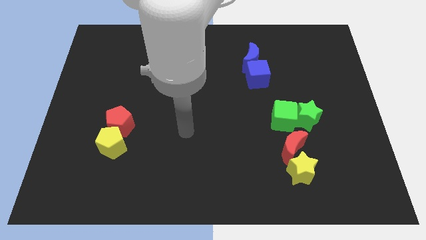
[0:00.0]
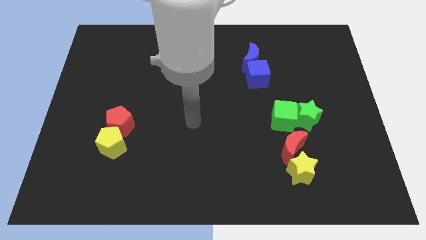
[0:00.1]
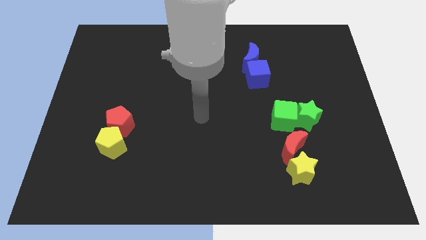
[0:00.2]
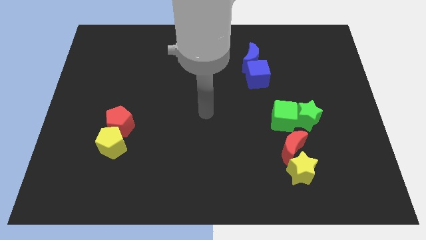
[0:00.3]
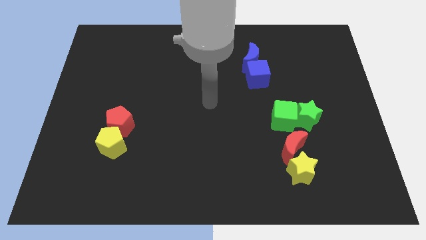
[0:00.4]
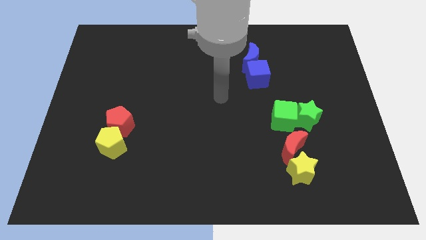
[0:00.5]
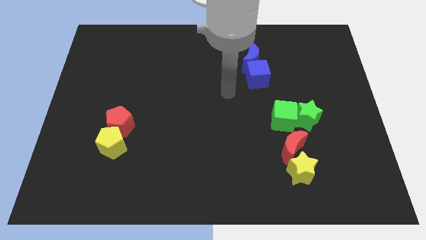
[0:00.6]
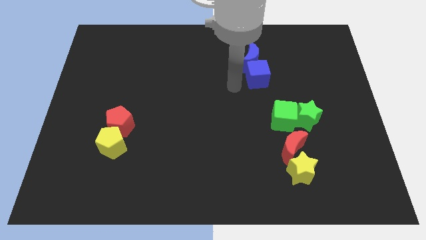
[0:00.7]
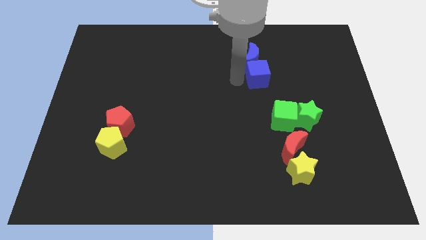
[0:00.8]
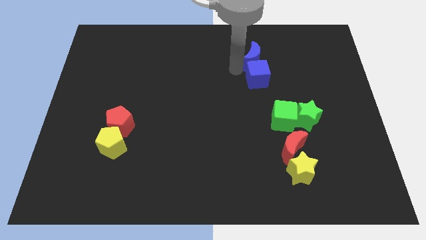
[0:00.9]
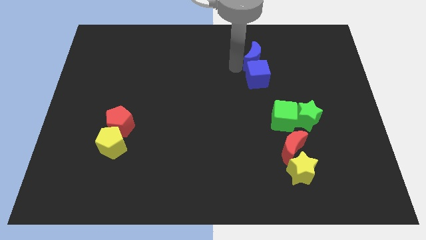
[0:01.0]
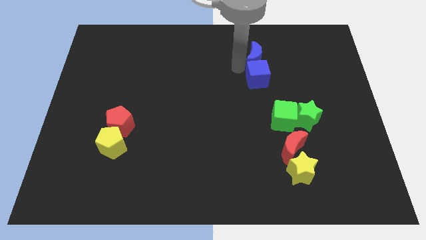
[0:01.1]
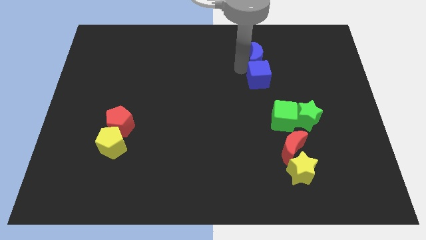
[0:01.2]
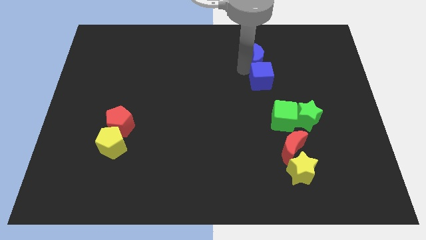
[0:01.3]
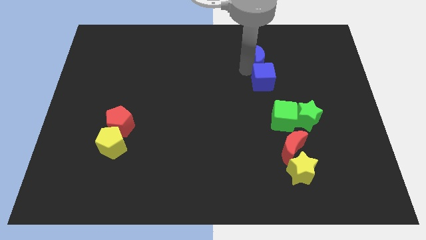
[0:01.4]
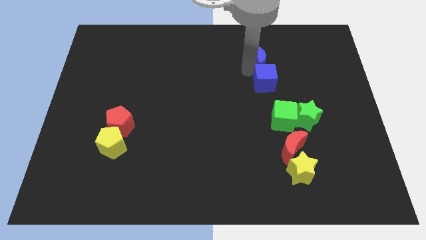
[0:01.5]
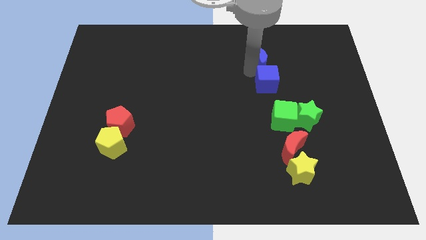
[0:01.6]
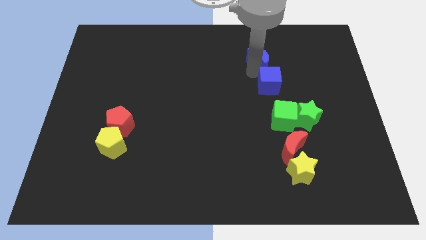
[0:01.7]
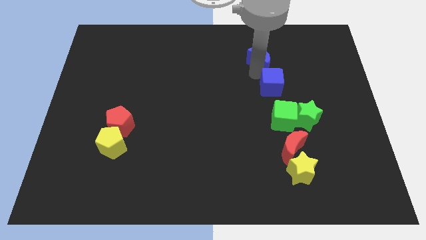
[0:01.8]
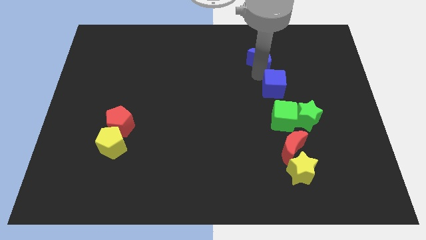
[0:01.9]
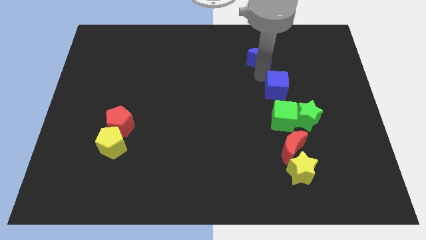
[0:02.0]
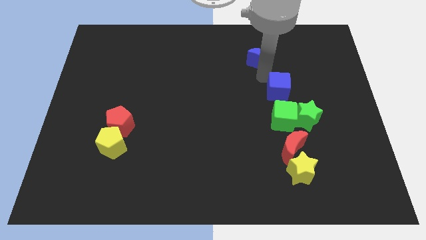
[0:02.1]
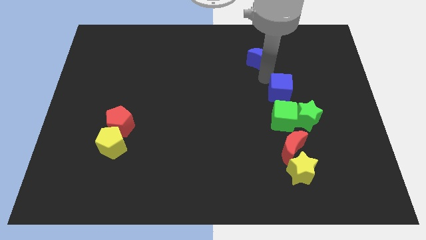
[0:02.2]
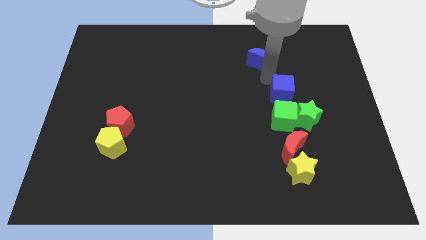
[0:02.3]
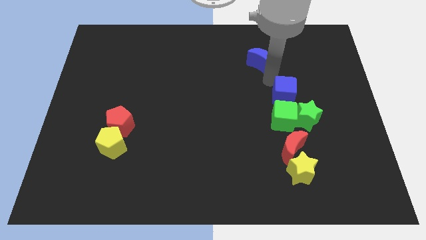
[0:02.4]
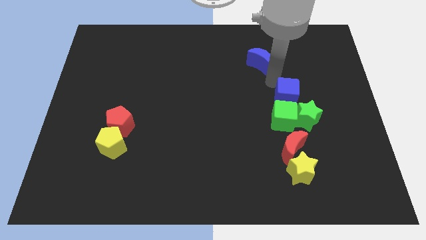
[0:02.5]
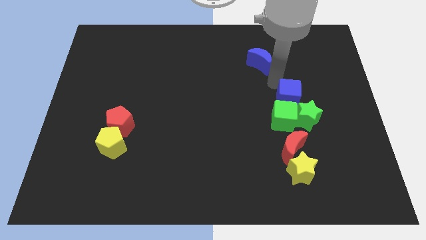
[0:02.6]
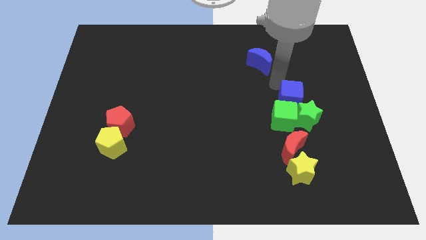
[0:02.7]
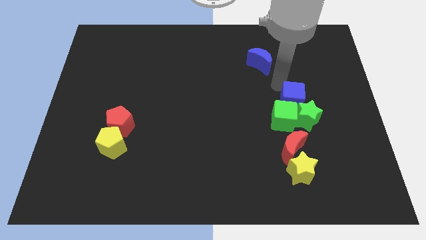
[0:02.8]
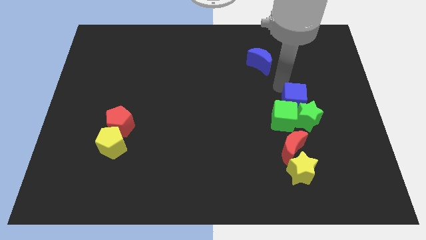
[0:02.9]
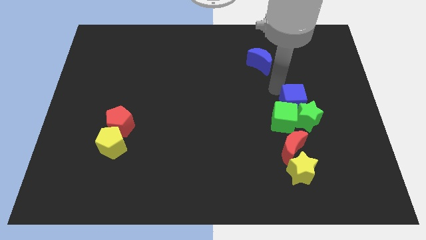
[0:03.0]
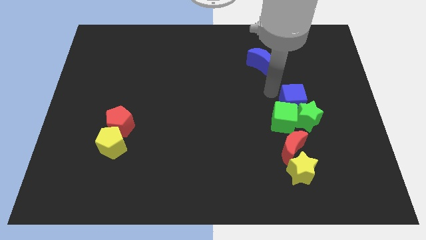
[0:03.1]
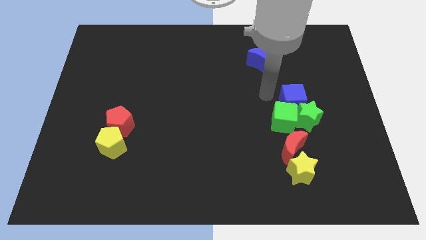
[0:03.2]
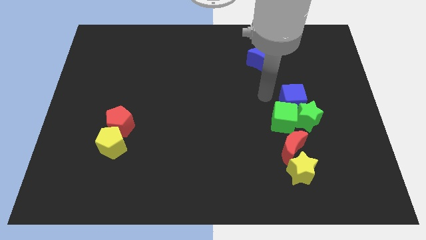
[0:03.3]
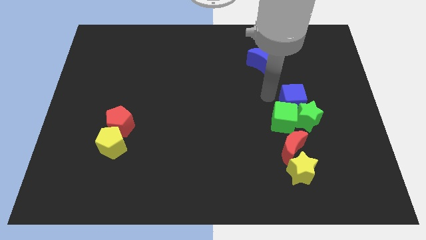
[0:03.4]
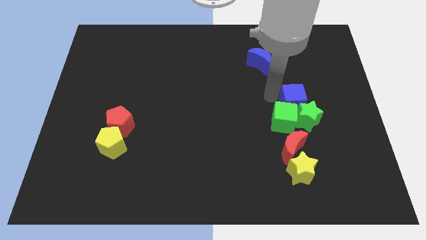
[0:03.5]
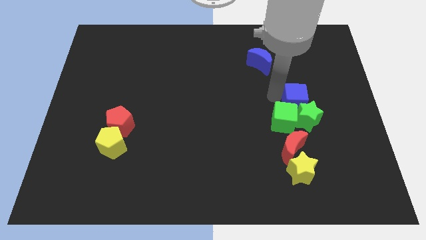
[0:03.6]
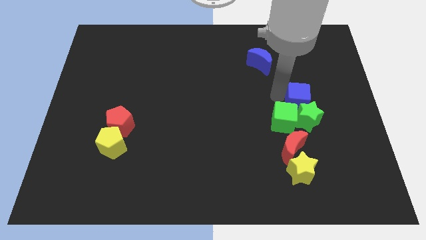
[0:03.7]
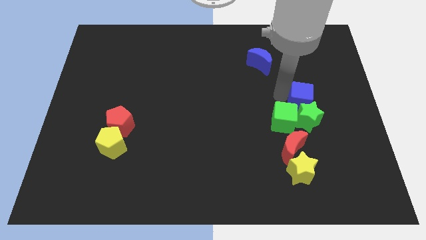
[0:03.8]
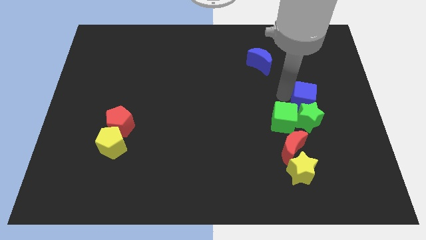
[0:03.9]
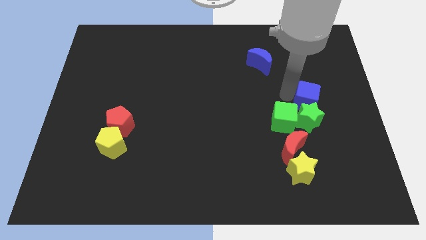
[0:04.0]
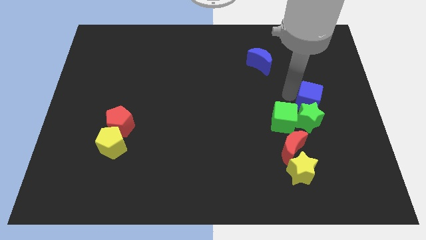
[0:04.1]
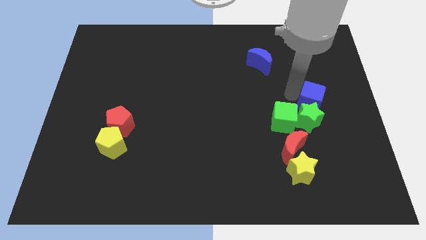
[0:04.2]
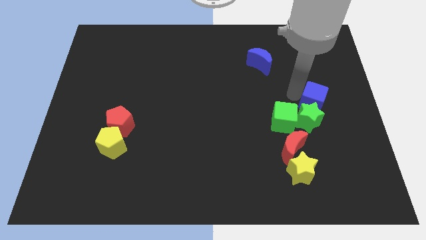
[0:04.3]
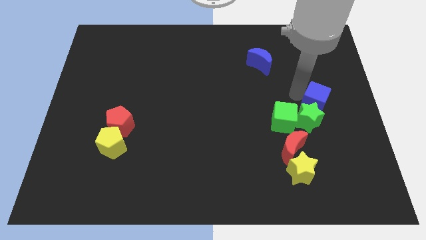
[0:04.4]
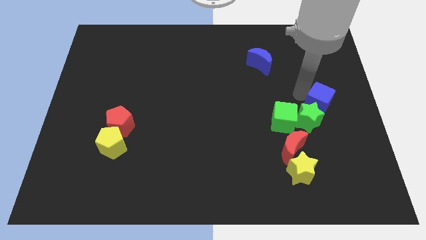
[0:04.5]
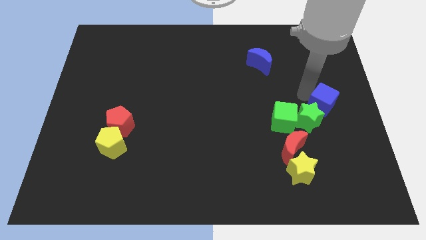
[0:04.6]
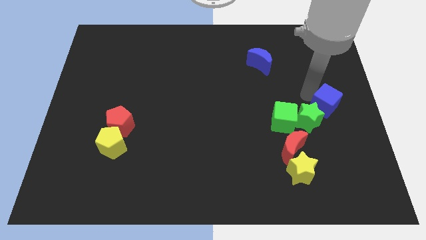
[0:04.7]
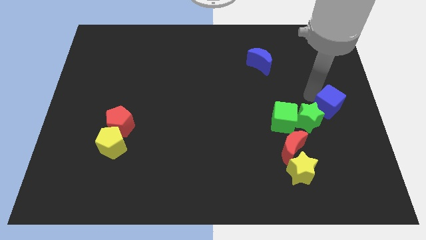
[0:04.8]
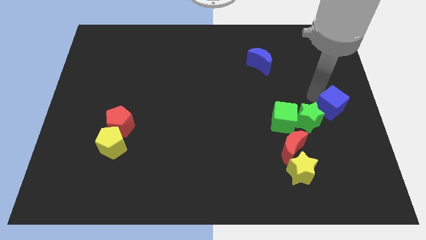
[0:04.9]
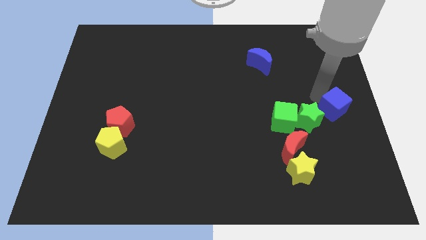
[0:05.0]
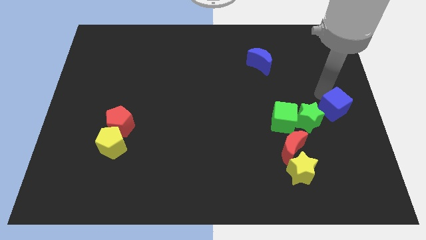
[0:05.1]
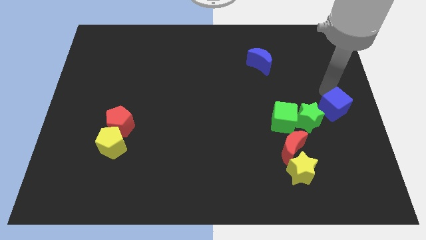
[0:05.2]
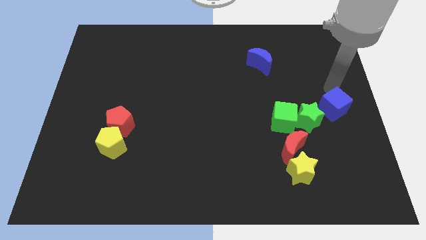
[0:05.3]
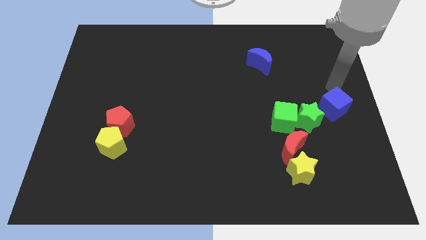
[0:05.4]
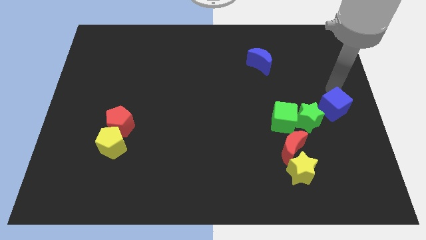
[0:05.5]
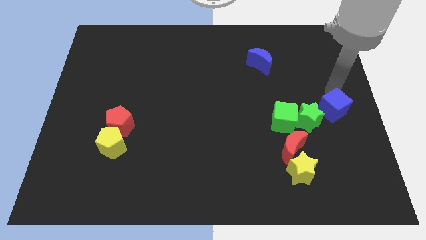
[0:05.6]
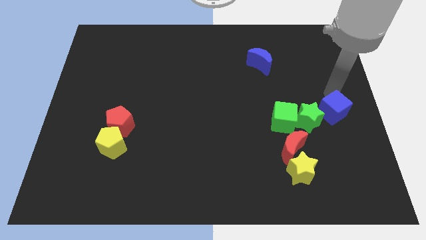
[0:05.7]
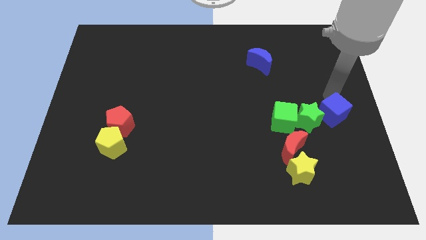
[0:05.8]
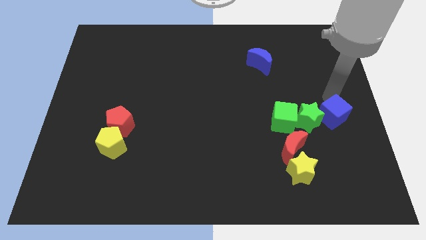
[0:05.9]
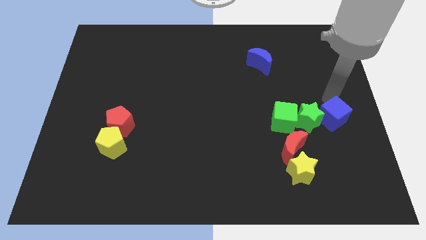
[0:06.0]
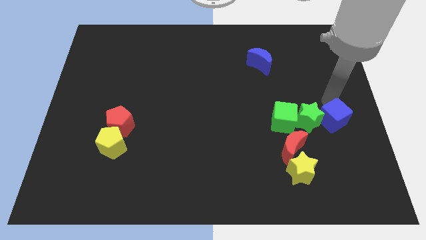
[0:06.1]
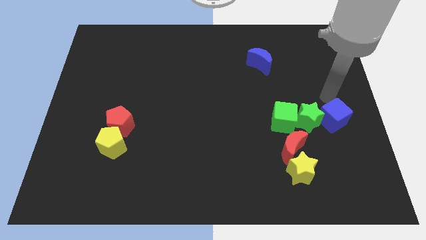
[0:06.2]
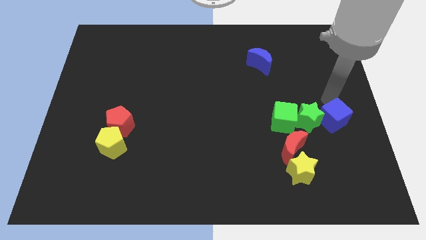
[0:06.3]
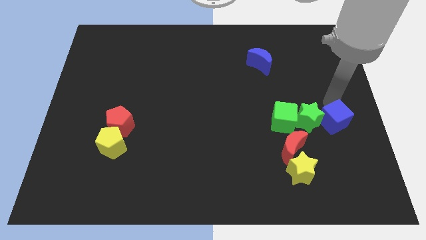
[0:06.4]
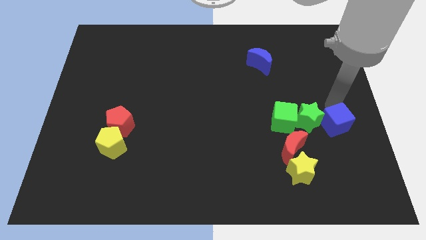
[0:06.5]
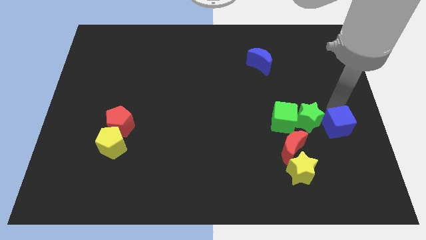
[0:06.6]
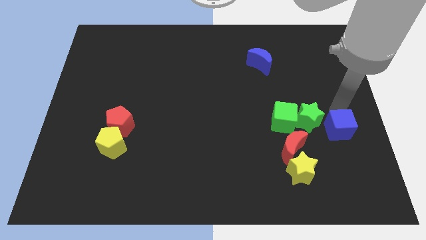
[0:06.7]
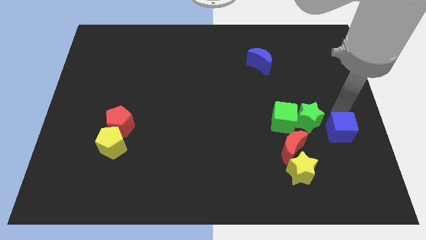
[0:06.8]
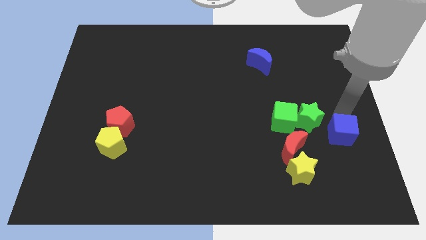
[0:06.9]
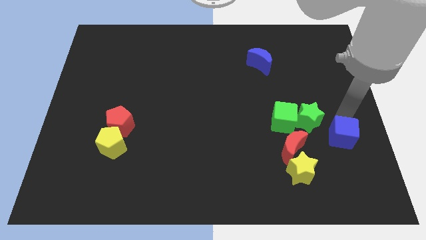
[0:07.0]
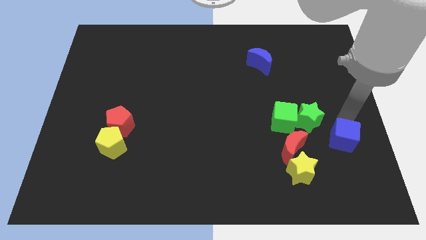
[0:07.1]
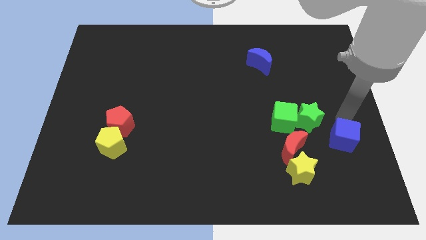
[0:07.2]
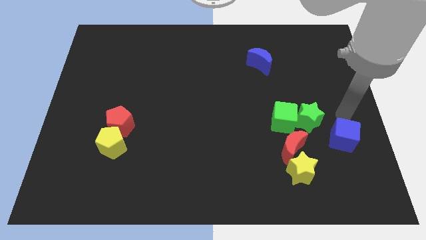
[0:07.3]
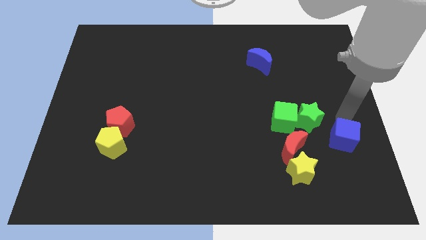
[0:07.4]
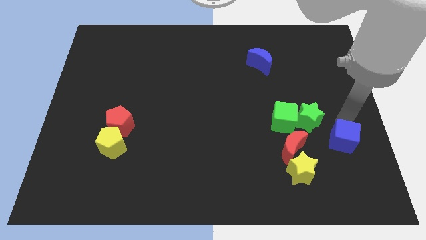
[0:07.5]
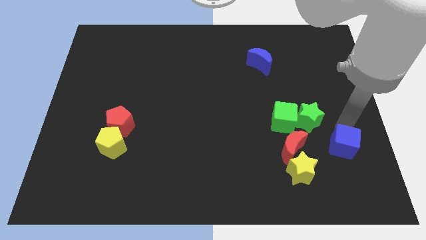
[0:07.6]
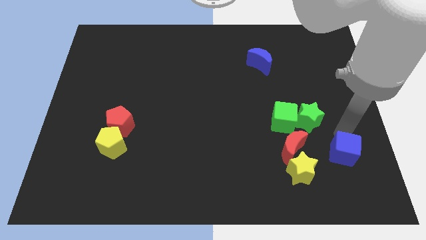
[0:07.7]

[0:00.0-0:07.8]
slide the blue cube right of the yellow star

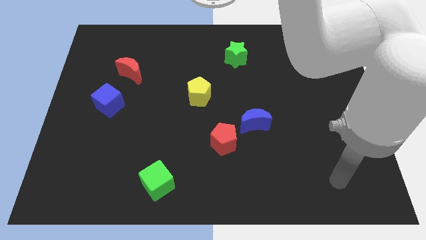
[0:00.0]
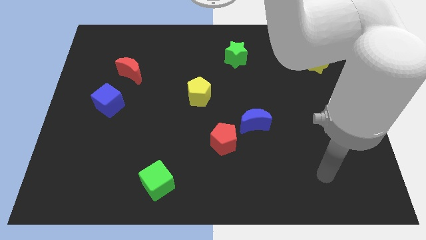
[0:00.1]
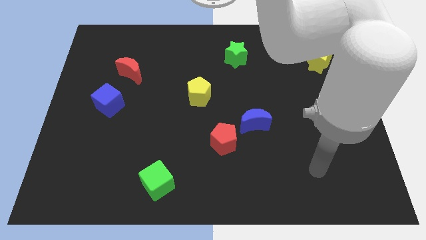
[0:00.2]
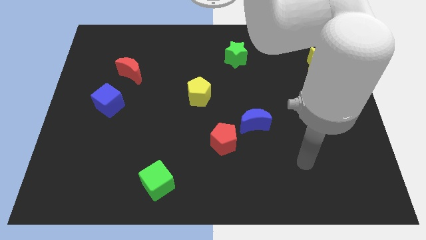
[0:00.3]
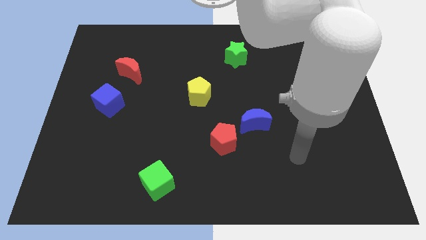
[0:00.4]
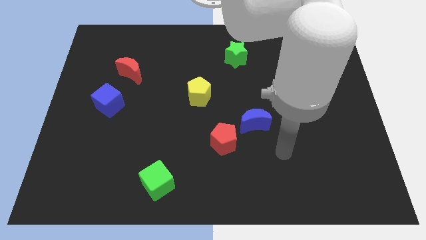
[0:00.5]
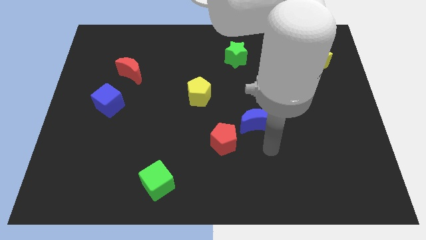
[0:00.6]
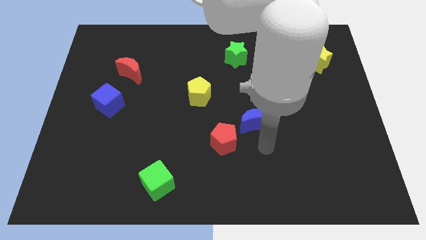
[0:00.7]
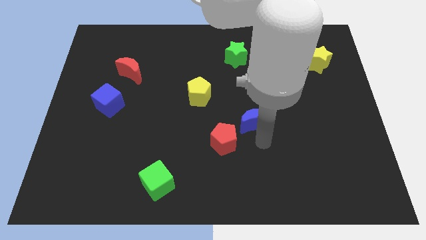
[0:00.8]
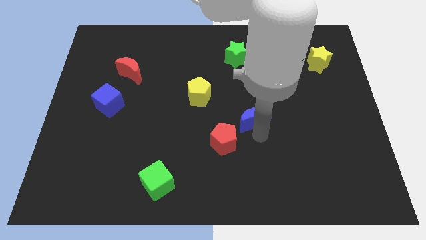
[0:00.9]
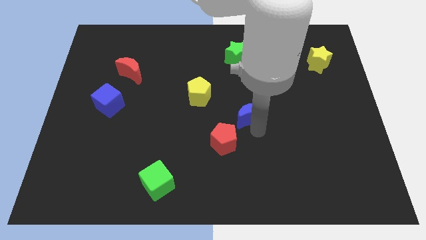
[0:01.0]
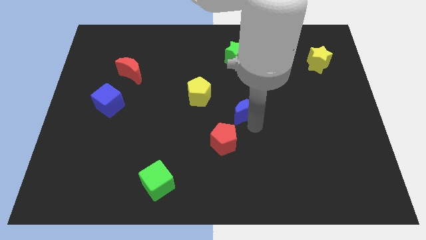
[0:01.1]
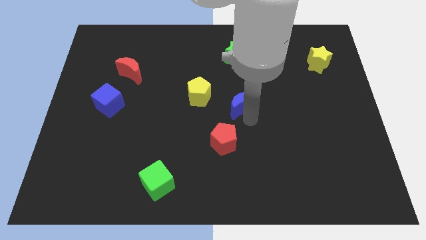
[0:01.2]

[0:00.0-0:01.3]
slide the blue moon to the bottom of the green star
